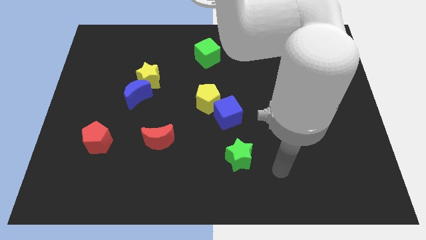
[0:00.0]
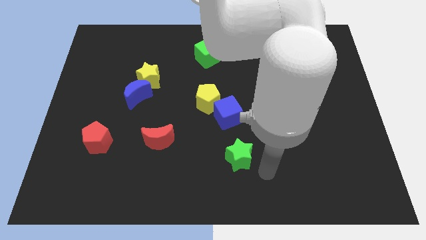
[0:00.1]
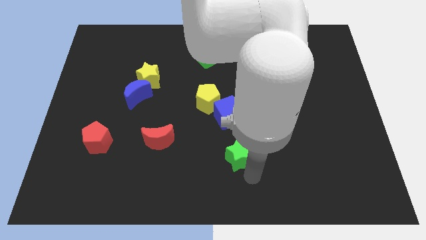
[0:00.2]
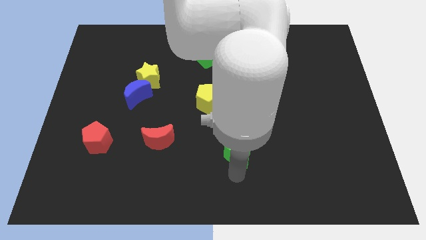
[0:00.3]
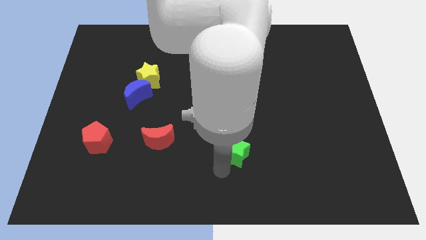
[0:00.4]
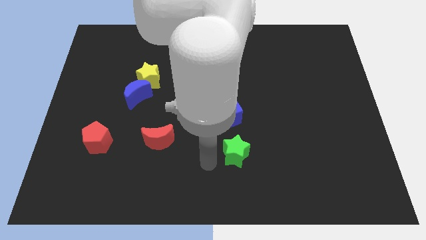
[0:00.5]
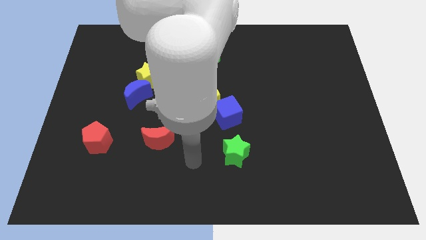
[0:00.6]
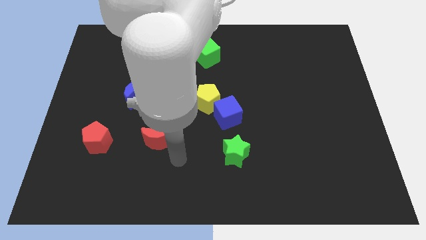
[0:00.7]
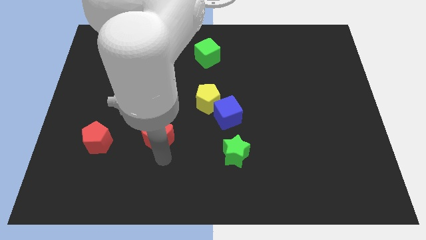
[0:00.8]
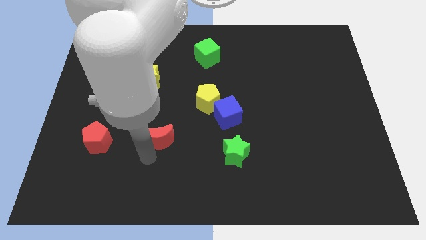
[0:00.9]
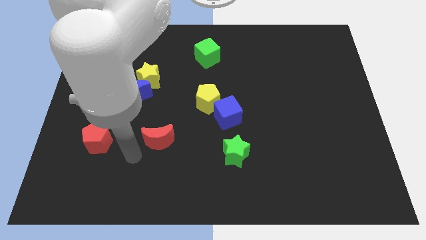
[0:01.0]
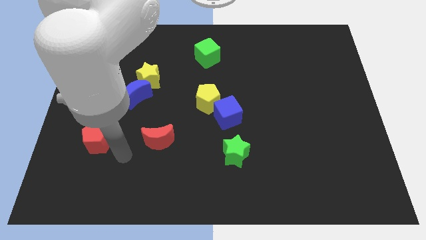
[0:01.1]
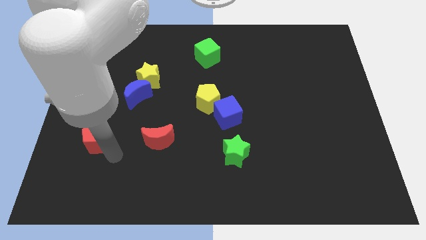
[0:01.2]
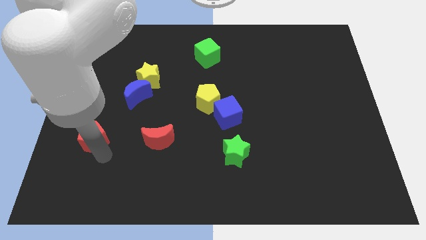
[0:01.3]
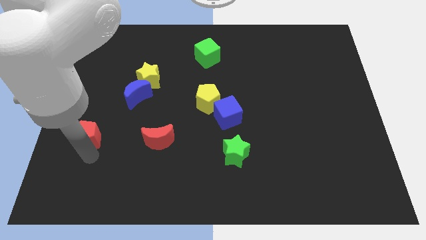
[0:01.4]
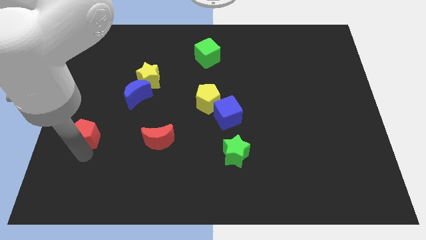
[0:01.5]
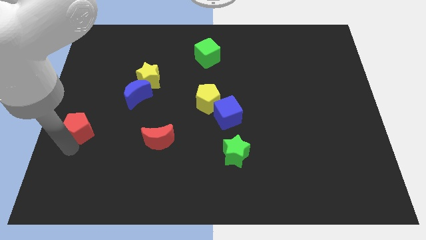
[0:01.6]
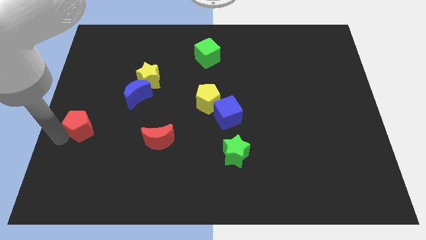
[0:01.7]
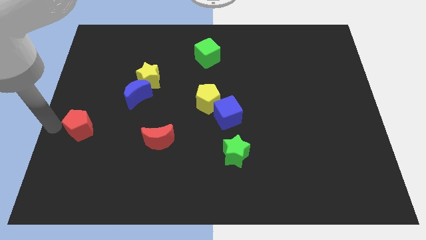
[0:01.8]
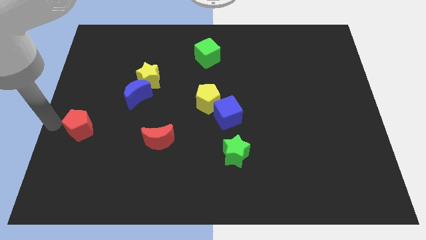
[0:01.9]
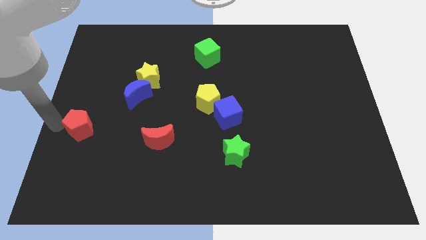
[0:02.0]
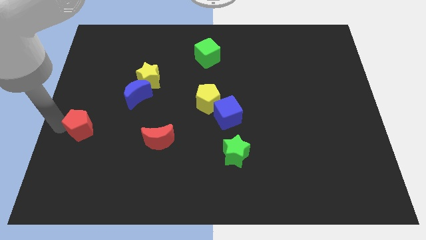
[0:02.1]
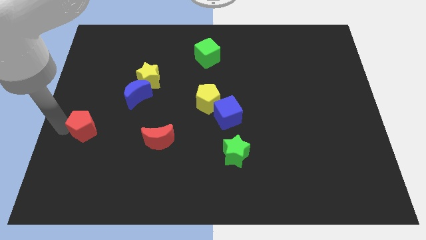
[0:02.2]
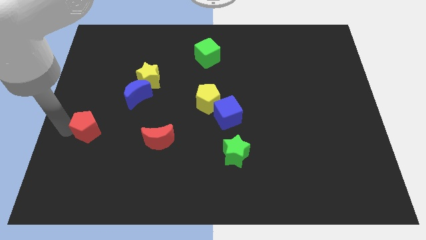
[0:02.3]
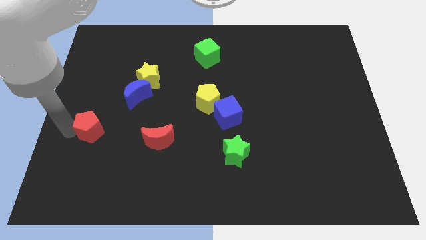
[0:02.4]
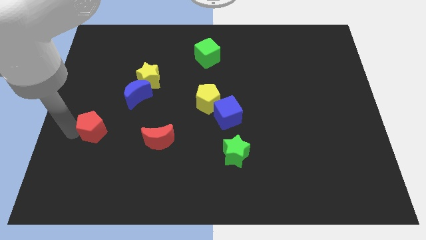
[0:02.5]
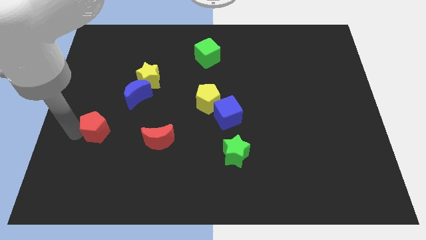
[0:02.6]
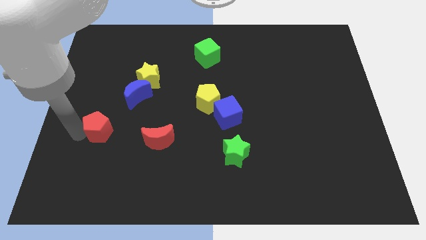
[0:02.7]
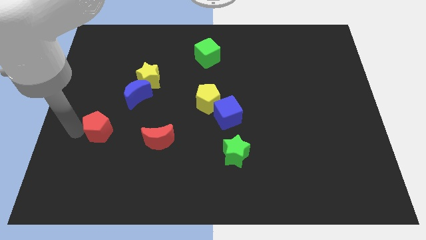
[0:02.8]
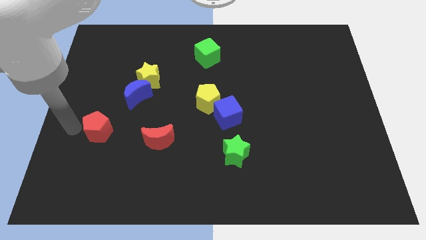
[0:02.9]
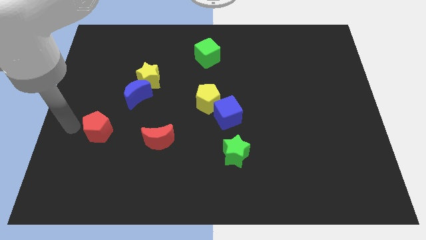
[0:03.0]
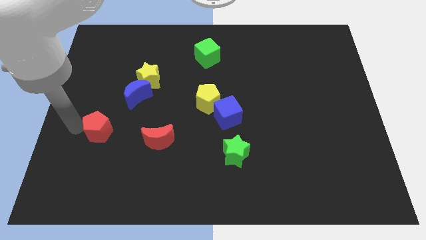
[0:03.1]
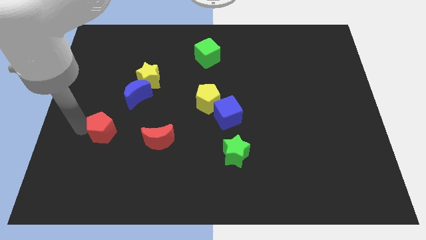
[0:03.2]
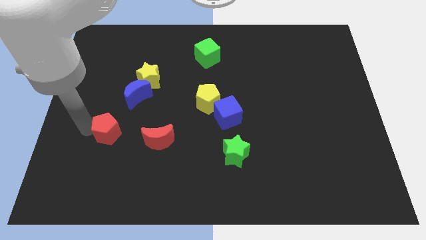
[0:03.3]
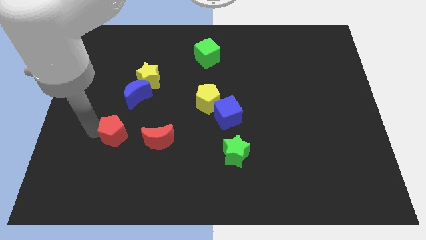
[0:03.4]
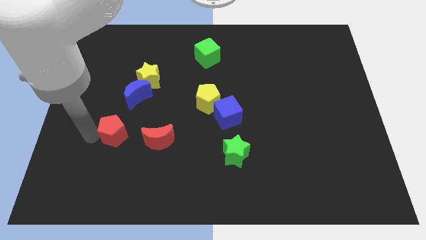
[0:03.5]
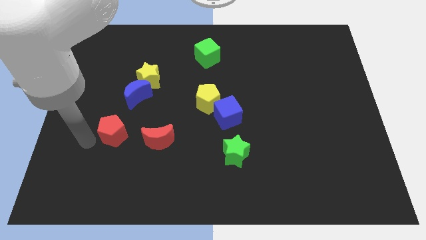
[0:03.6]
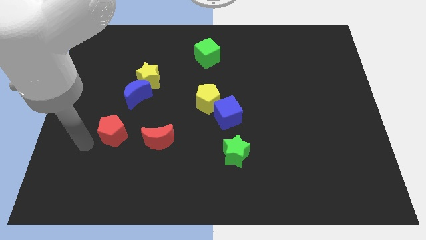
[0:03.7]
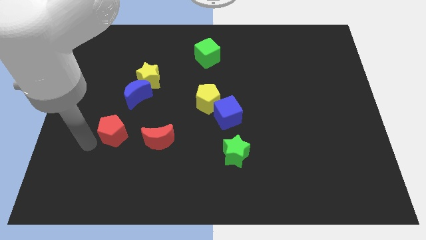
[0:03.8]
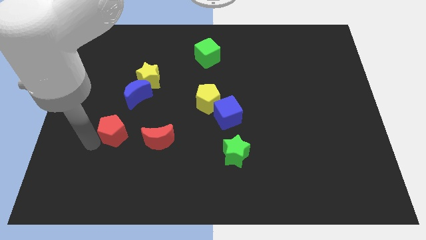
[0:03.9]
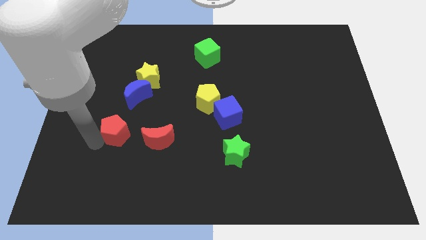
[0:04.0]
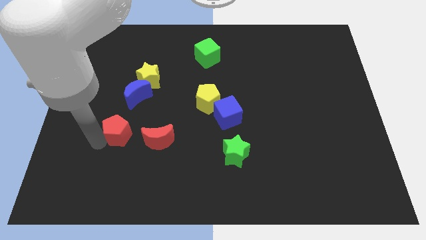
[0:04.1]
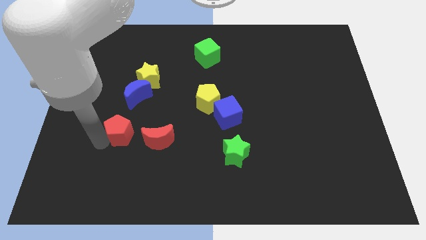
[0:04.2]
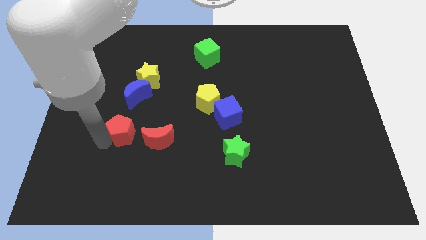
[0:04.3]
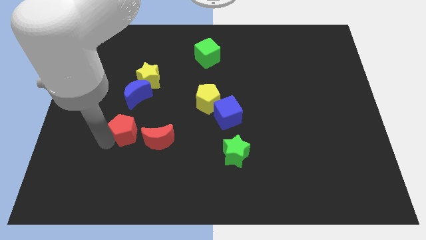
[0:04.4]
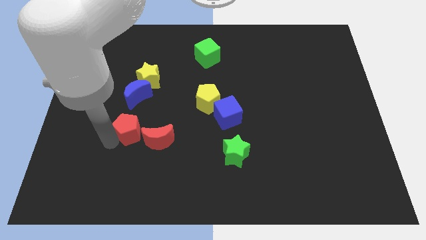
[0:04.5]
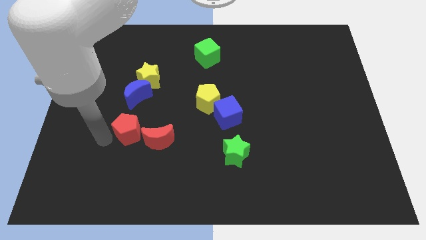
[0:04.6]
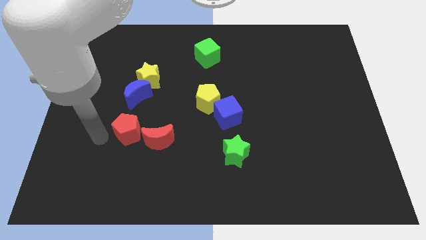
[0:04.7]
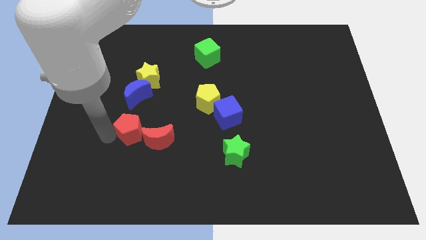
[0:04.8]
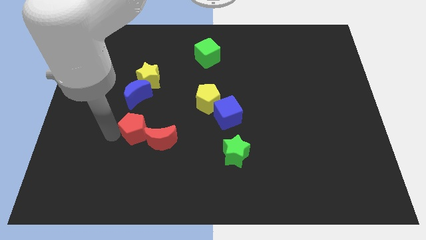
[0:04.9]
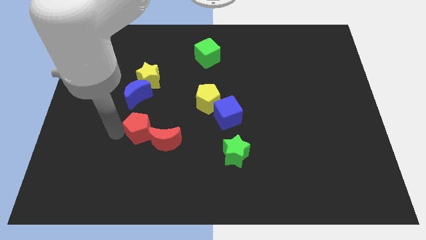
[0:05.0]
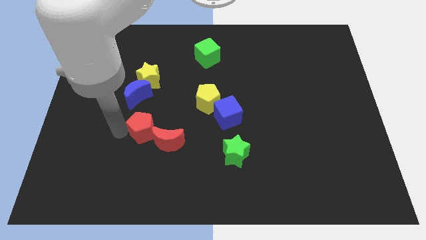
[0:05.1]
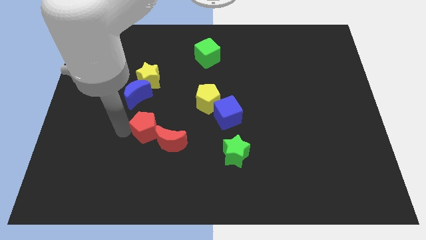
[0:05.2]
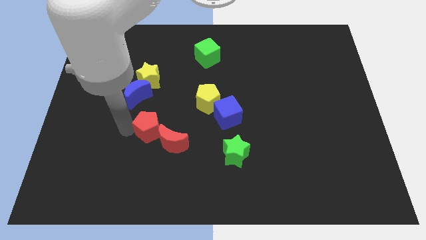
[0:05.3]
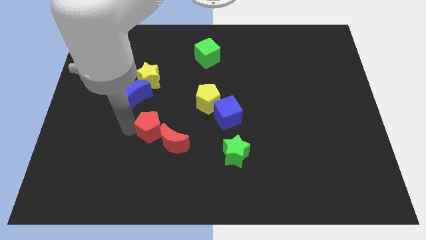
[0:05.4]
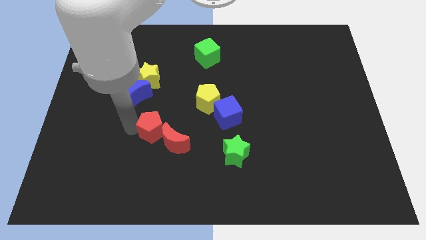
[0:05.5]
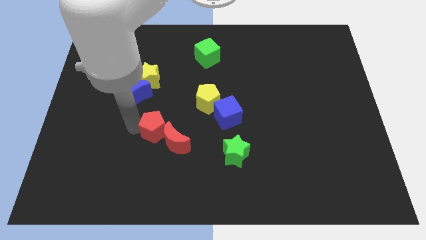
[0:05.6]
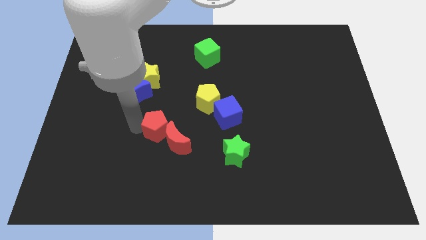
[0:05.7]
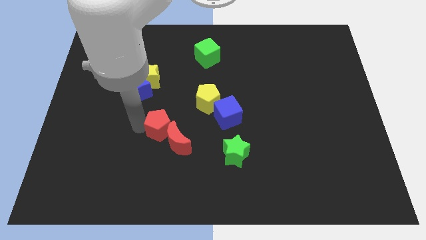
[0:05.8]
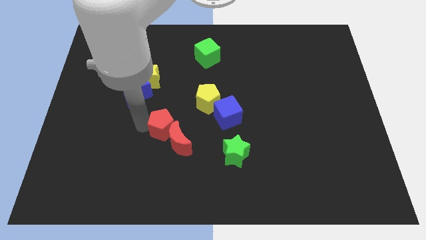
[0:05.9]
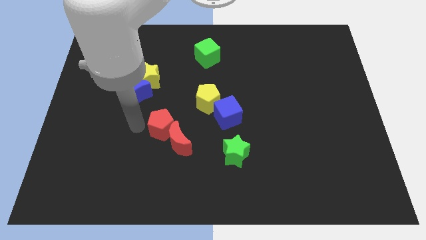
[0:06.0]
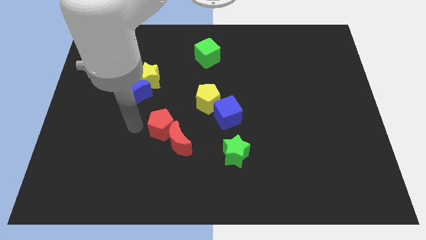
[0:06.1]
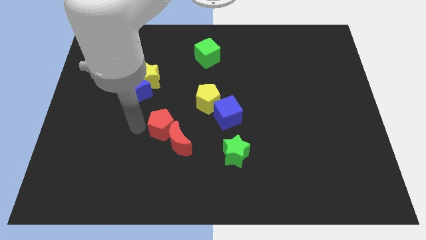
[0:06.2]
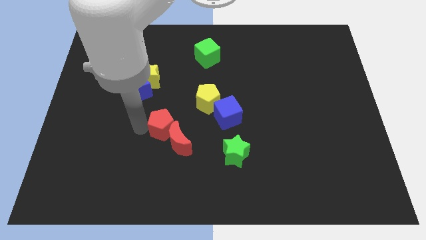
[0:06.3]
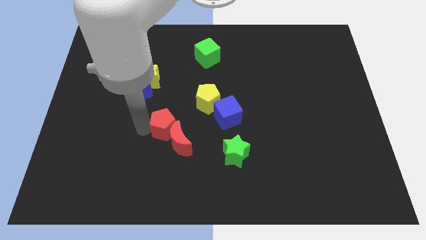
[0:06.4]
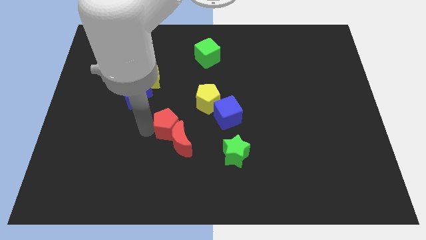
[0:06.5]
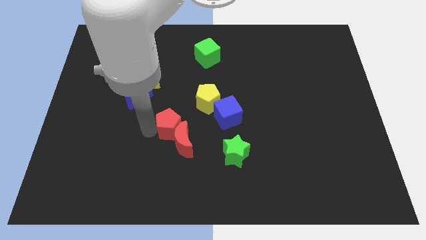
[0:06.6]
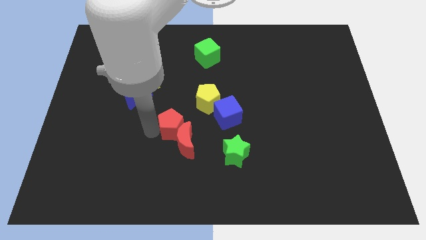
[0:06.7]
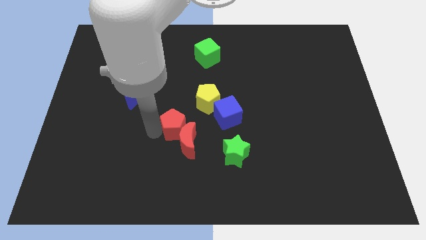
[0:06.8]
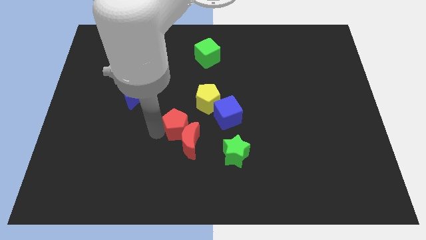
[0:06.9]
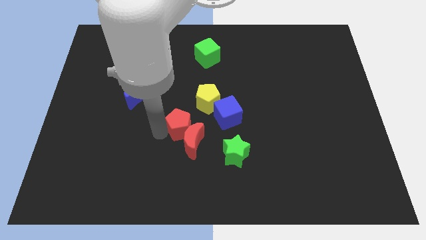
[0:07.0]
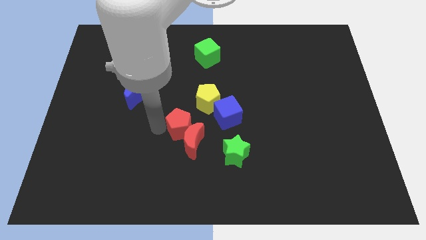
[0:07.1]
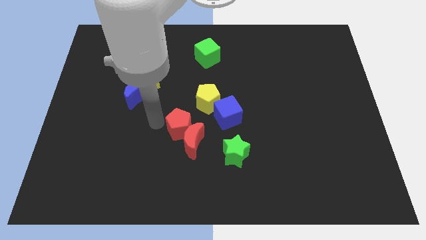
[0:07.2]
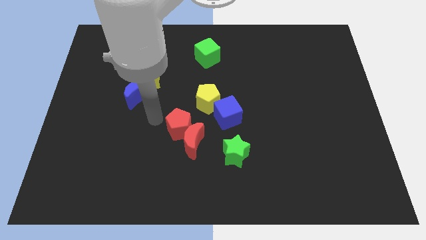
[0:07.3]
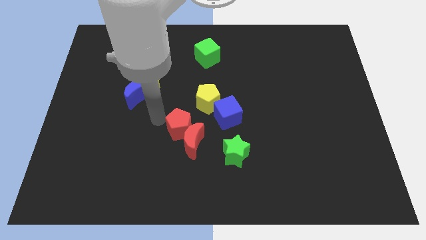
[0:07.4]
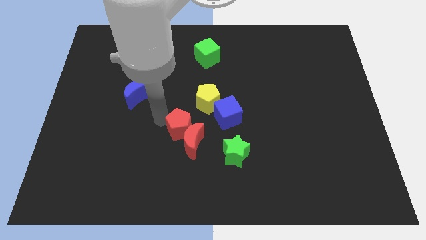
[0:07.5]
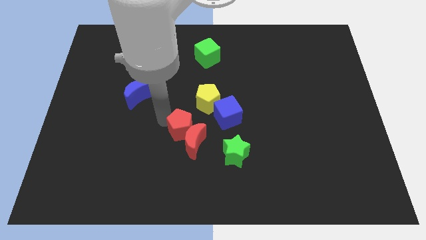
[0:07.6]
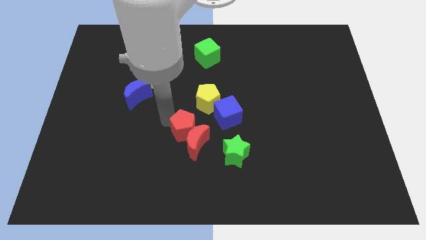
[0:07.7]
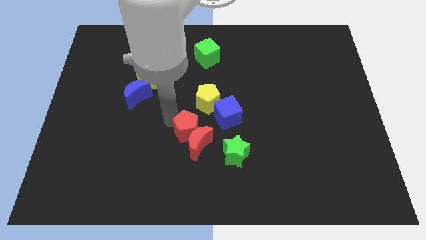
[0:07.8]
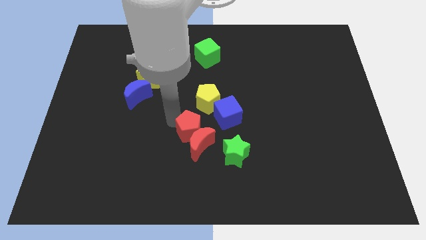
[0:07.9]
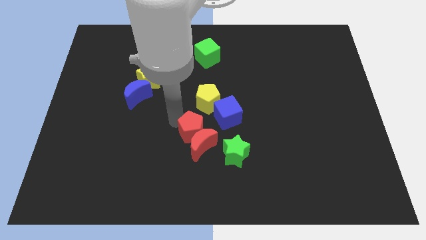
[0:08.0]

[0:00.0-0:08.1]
push the red pentagon right
